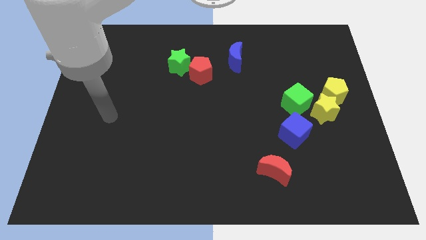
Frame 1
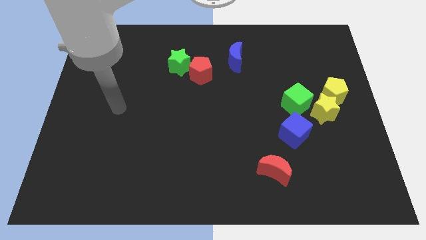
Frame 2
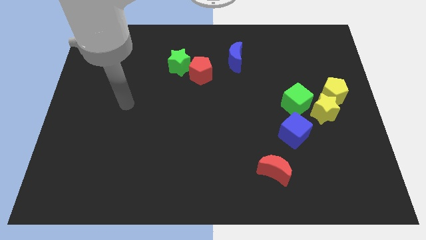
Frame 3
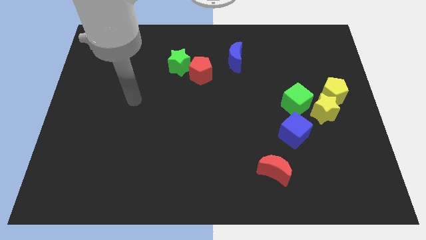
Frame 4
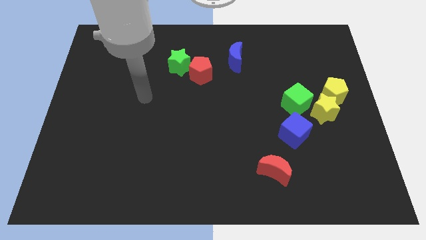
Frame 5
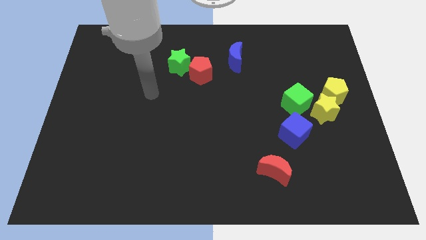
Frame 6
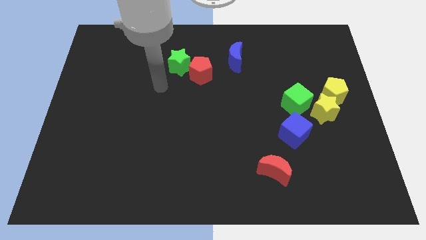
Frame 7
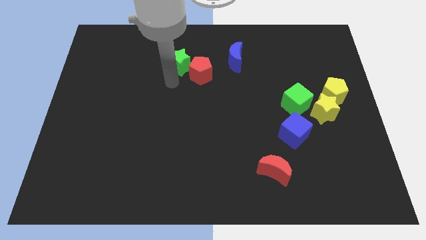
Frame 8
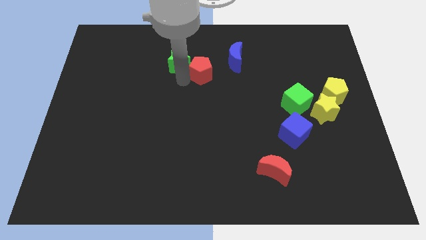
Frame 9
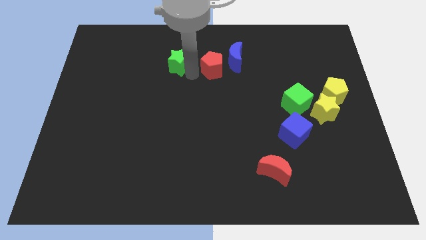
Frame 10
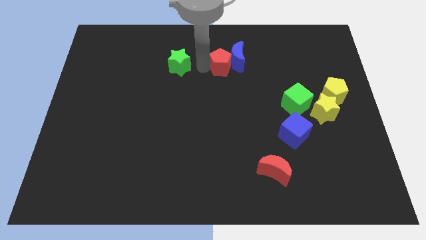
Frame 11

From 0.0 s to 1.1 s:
pull the green star apart from the red pentagon

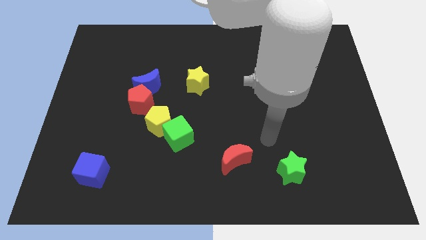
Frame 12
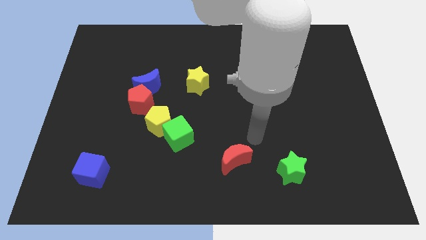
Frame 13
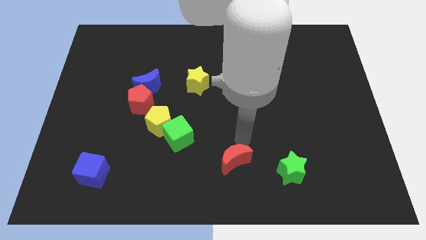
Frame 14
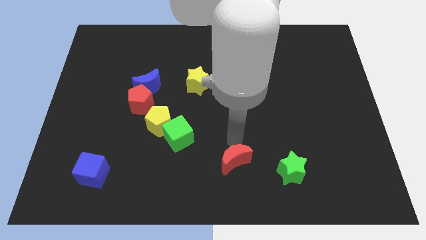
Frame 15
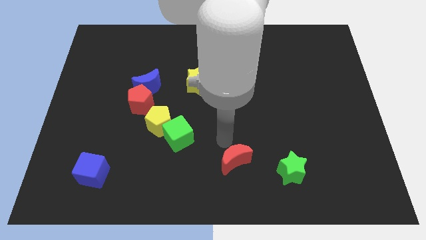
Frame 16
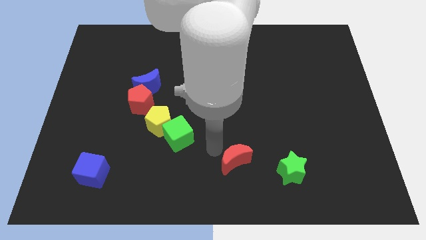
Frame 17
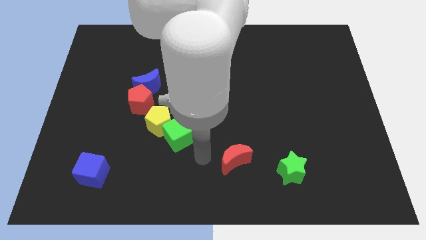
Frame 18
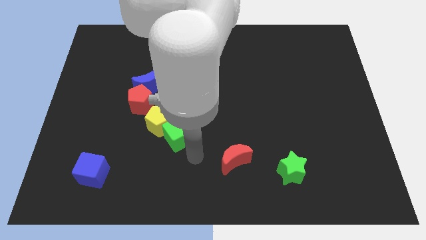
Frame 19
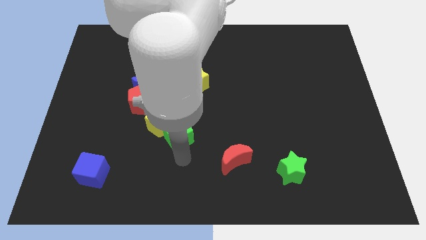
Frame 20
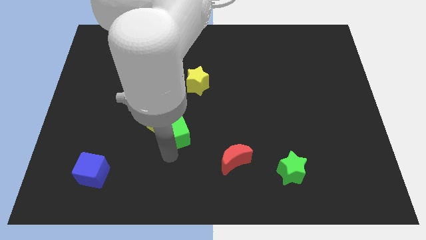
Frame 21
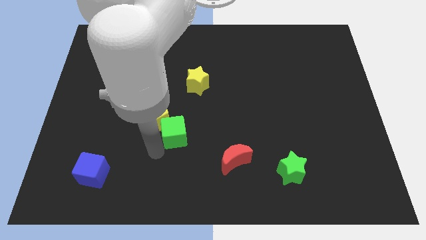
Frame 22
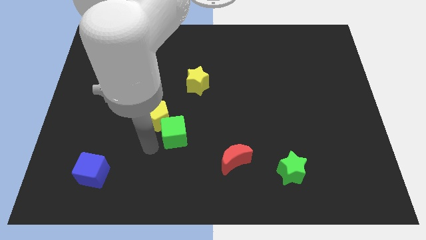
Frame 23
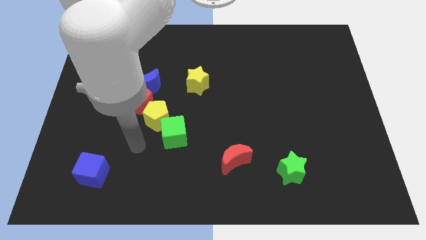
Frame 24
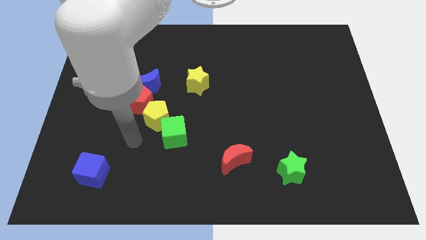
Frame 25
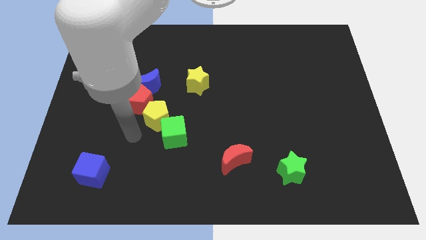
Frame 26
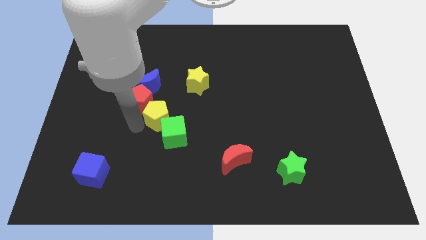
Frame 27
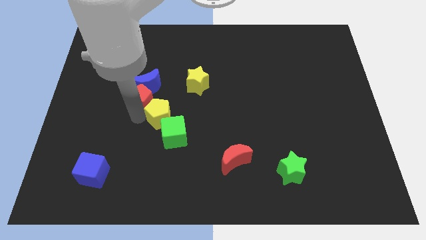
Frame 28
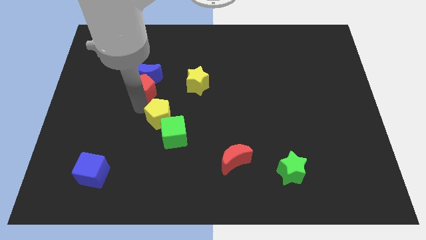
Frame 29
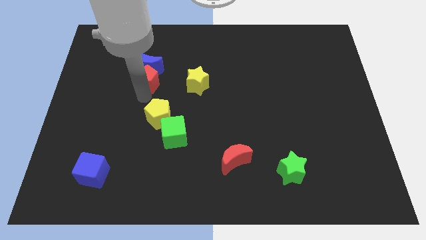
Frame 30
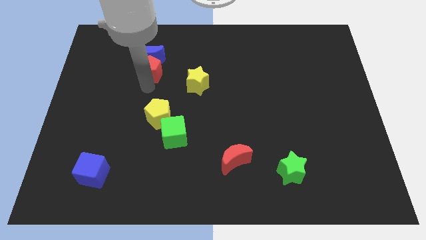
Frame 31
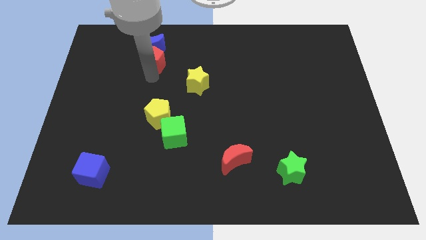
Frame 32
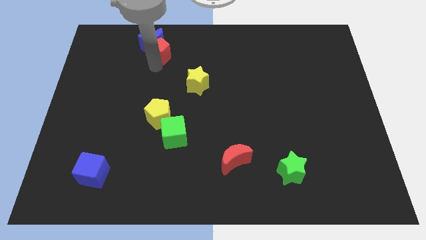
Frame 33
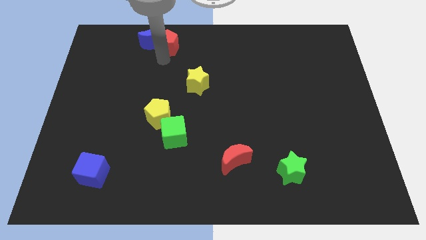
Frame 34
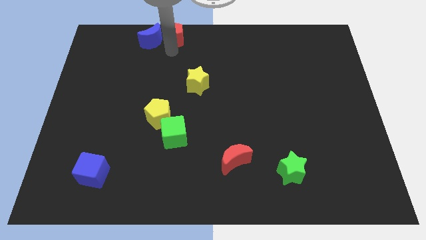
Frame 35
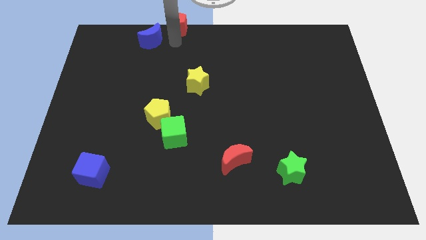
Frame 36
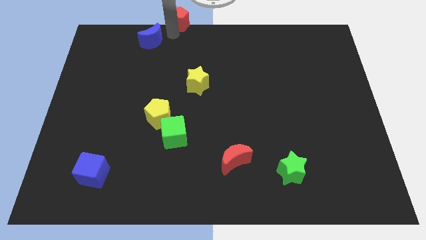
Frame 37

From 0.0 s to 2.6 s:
move the blue moon away from the red pentagon

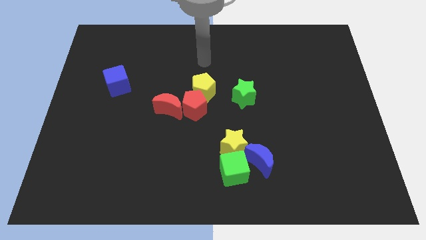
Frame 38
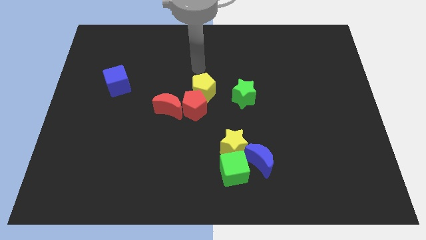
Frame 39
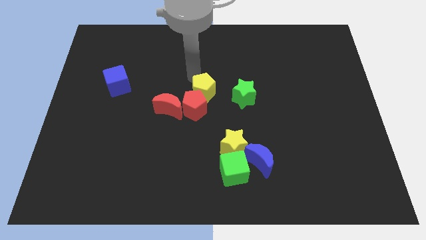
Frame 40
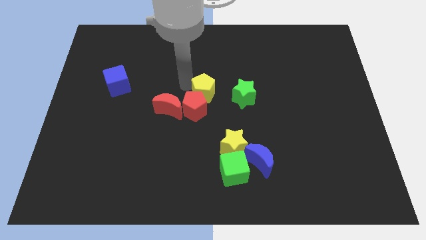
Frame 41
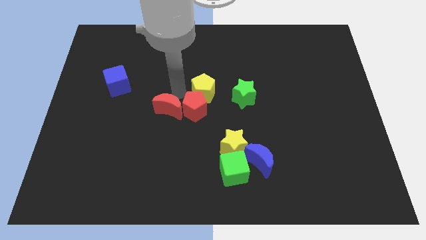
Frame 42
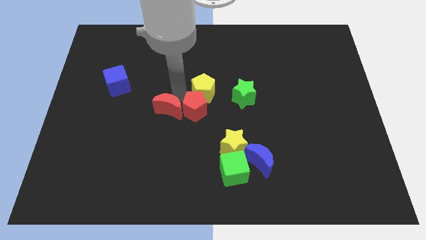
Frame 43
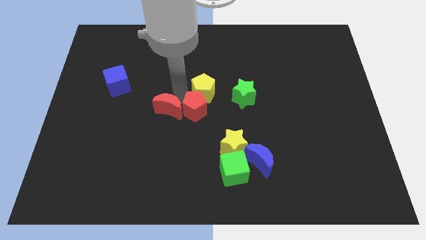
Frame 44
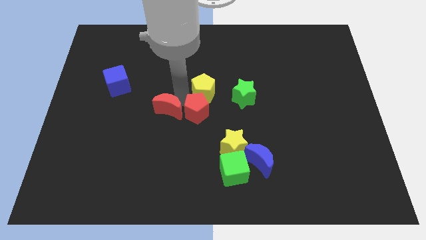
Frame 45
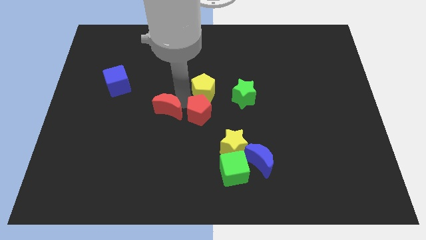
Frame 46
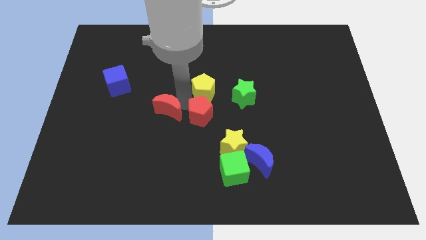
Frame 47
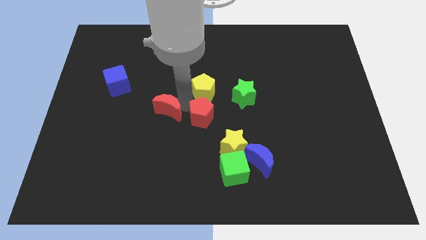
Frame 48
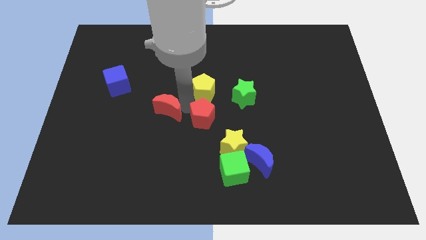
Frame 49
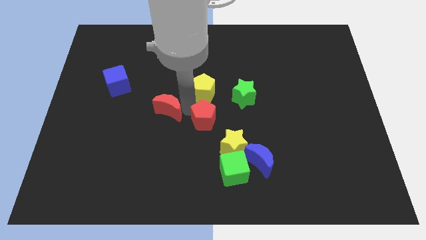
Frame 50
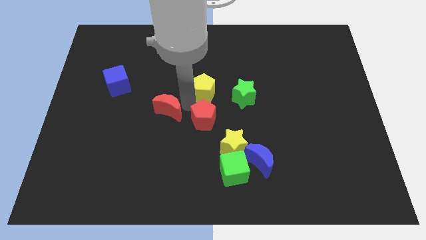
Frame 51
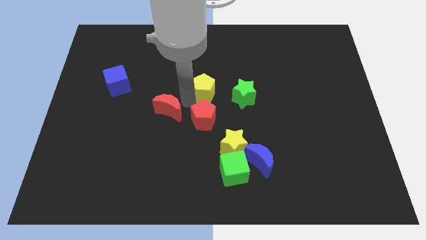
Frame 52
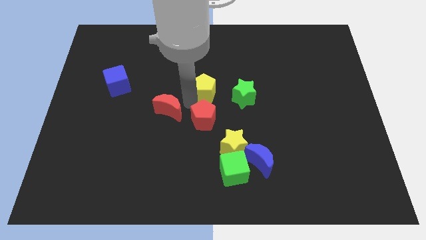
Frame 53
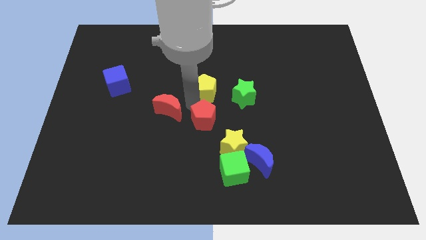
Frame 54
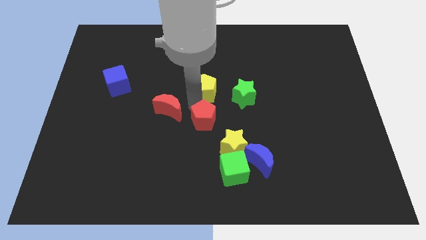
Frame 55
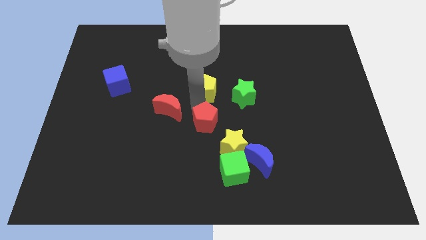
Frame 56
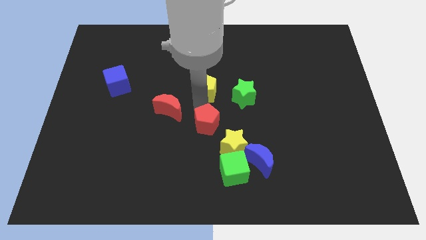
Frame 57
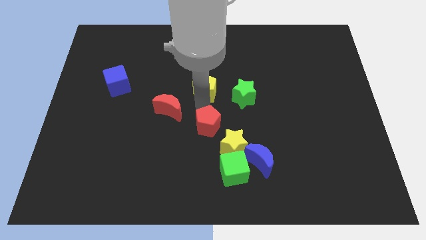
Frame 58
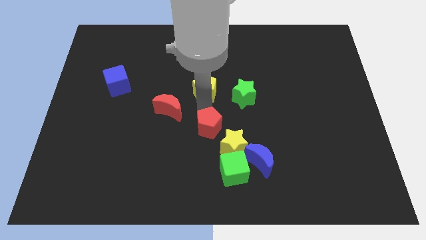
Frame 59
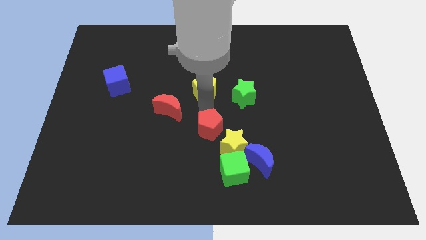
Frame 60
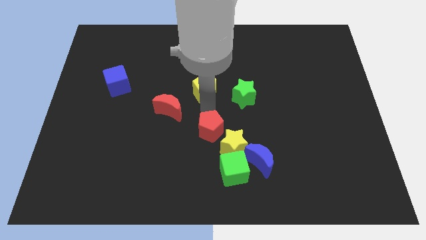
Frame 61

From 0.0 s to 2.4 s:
separate the red pentagon from the yellow pentagon and red moon

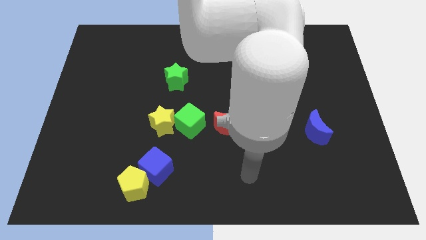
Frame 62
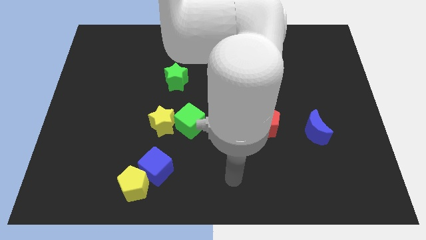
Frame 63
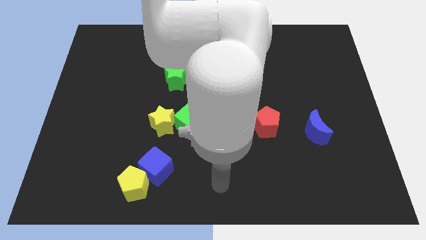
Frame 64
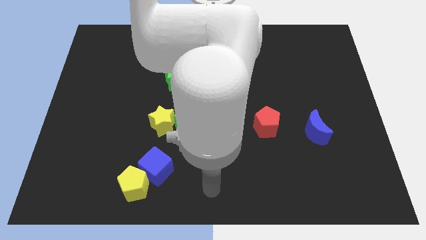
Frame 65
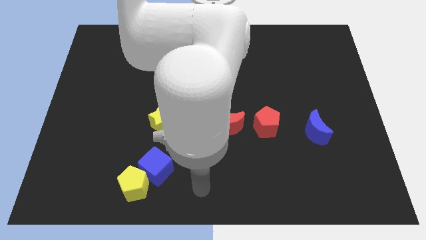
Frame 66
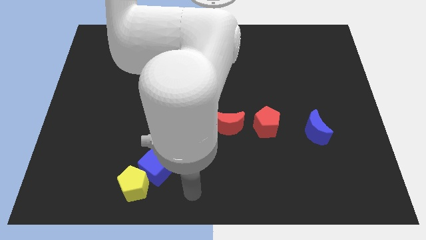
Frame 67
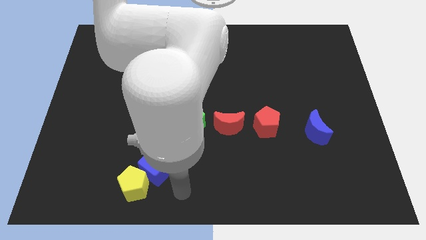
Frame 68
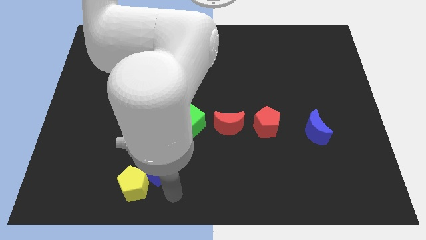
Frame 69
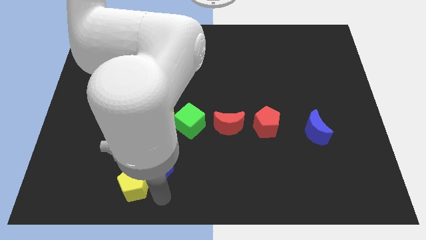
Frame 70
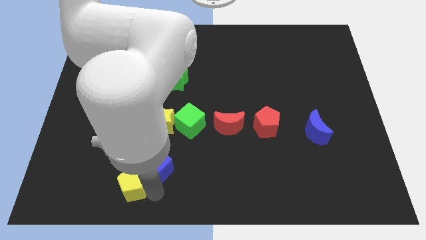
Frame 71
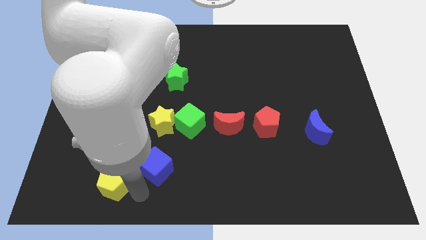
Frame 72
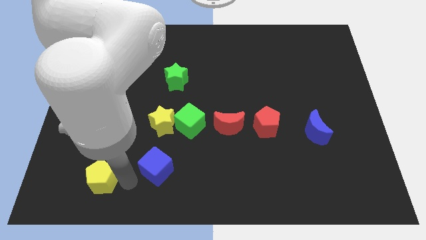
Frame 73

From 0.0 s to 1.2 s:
pull the blue cube apart from the yellow pentagon

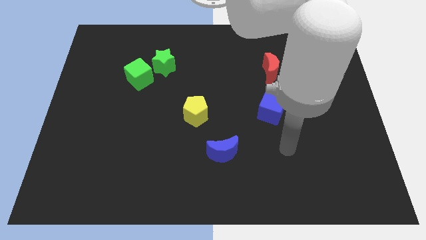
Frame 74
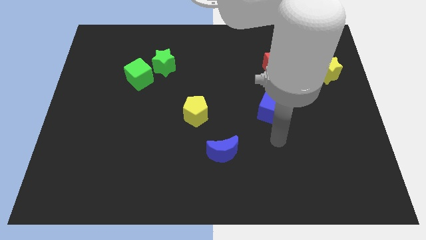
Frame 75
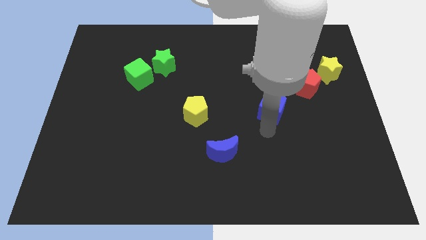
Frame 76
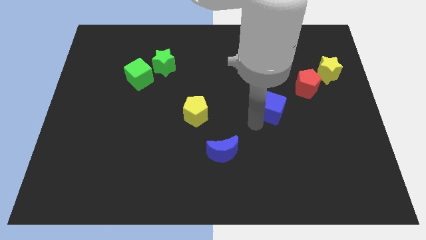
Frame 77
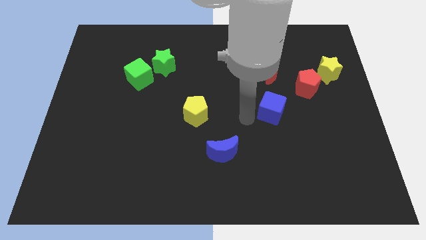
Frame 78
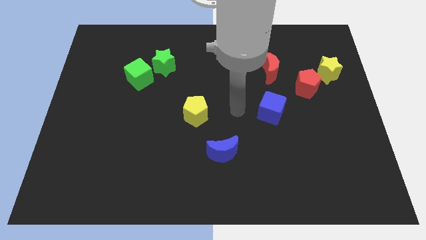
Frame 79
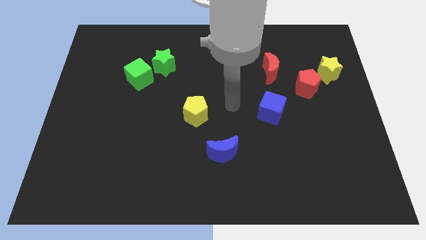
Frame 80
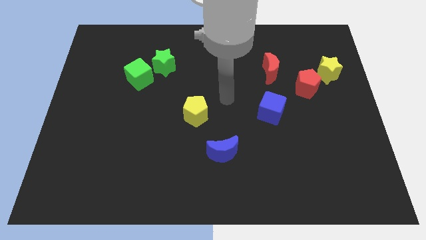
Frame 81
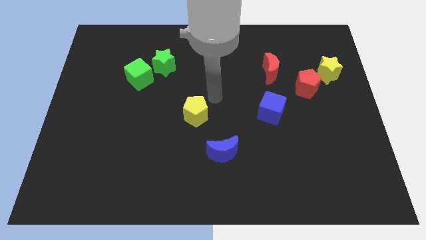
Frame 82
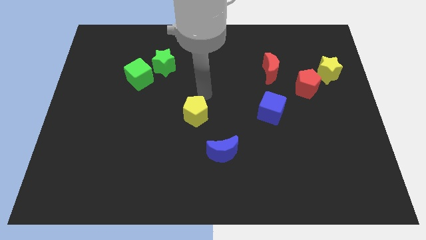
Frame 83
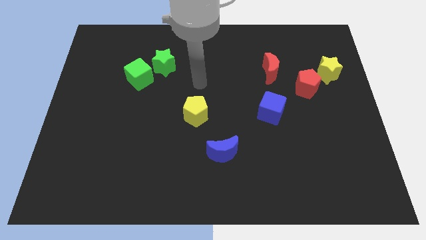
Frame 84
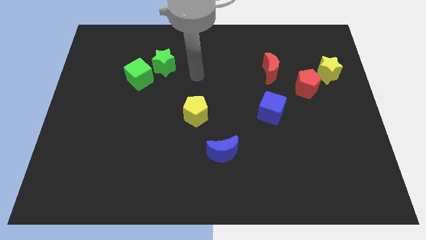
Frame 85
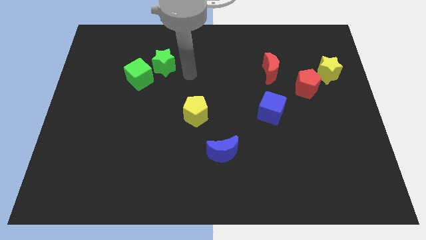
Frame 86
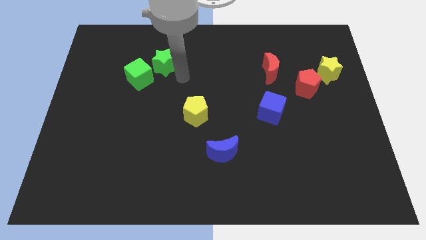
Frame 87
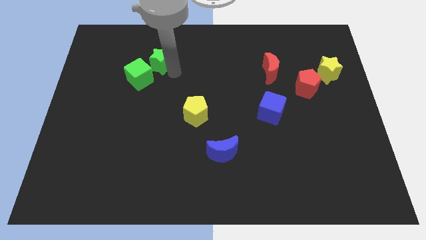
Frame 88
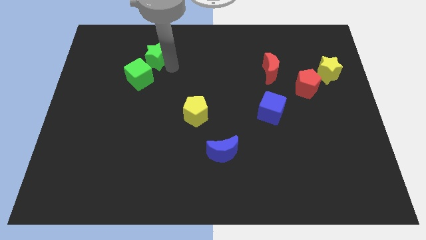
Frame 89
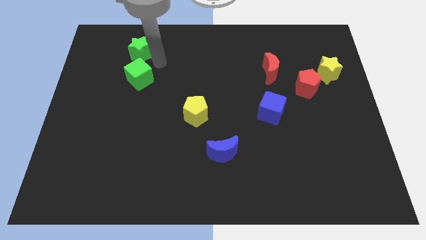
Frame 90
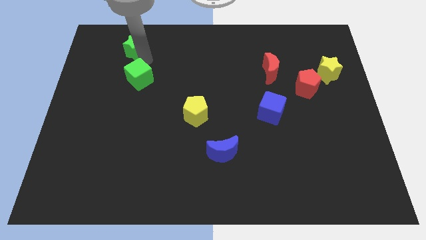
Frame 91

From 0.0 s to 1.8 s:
move the green cube away from the green star

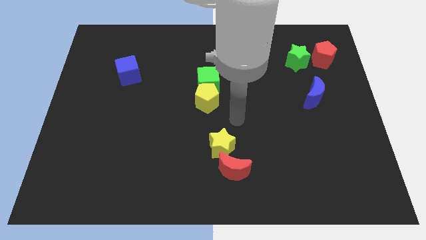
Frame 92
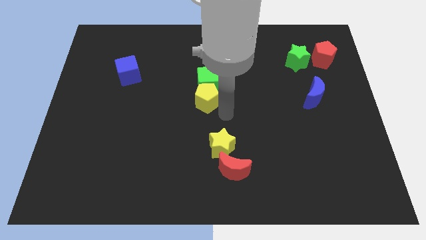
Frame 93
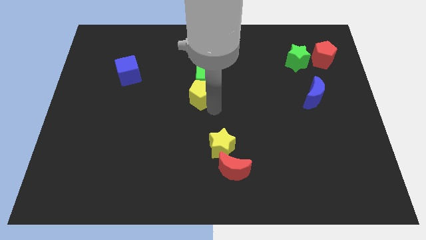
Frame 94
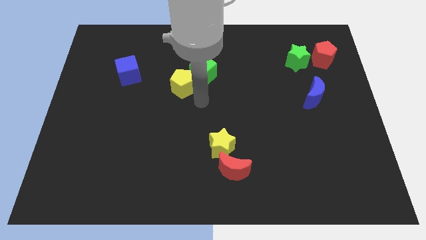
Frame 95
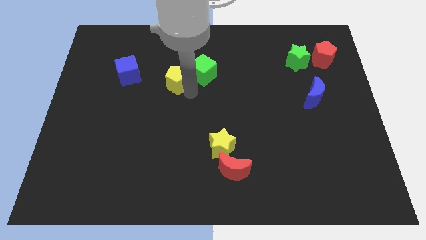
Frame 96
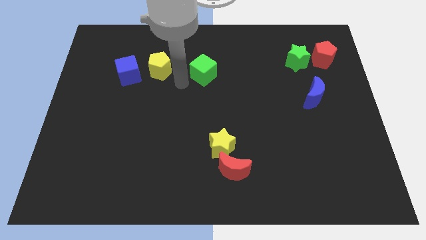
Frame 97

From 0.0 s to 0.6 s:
move the green cube away from the yellow pentagon
